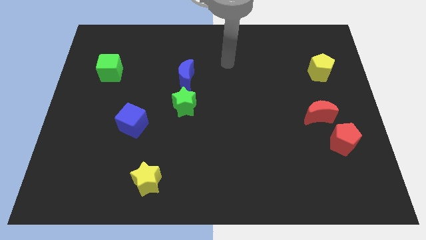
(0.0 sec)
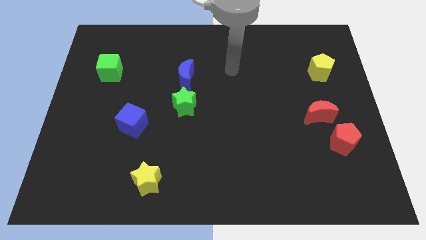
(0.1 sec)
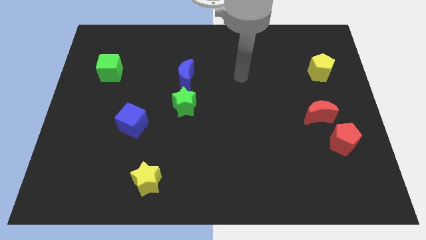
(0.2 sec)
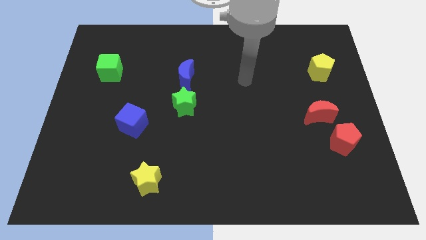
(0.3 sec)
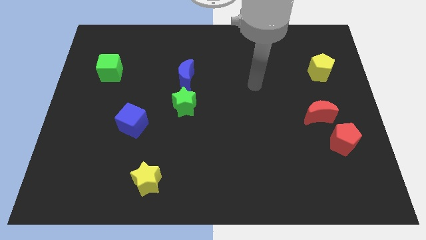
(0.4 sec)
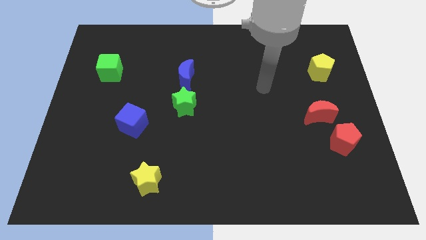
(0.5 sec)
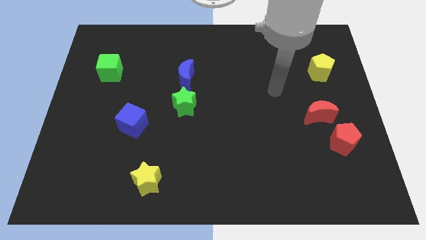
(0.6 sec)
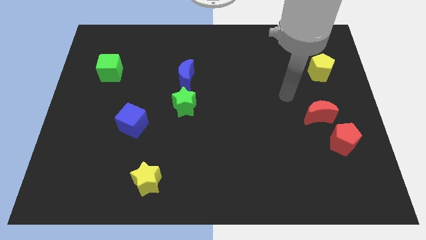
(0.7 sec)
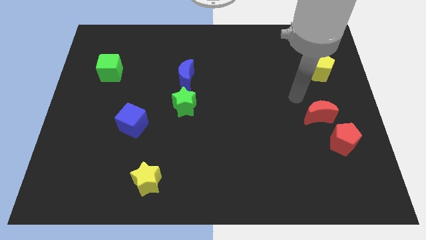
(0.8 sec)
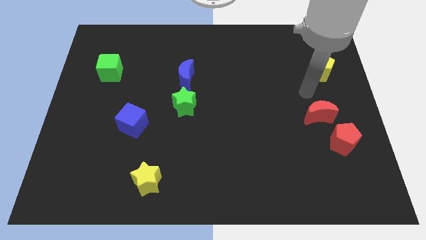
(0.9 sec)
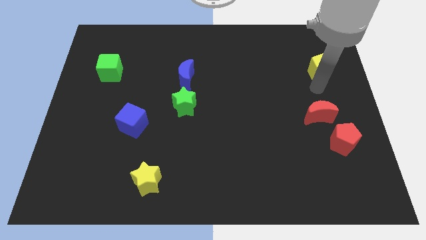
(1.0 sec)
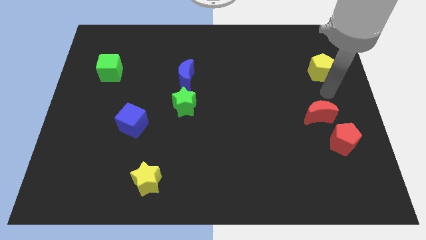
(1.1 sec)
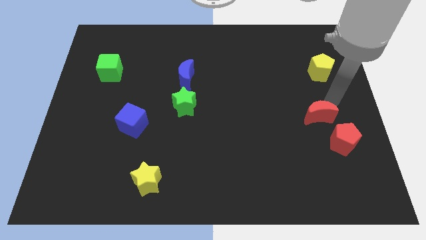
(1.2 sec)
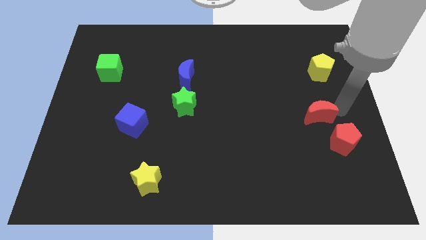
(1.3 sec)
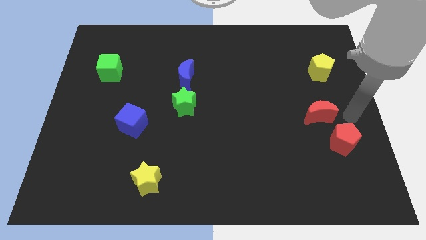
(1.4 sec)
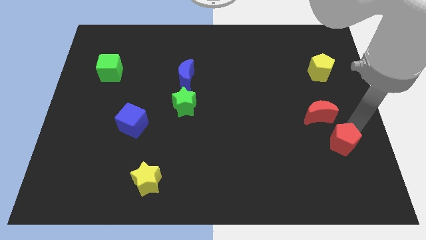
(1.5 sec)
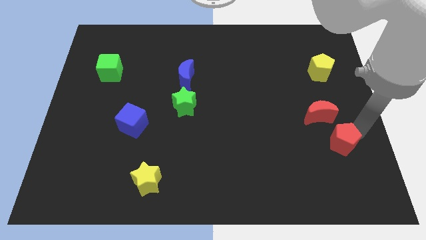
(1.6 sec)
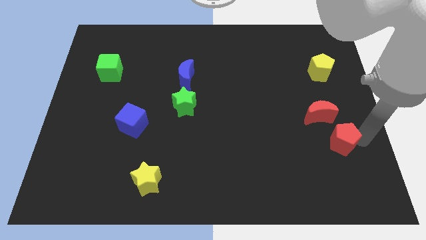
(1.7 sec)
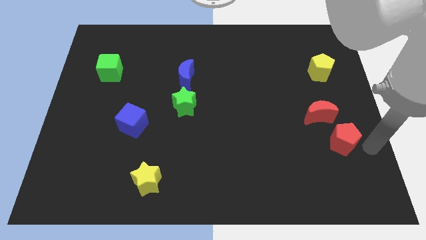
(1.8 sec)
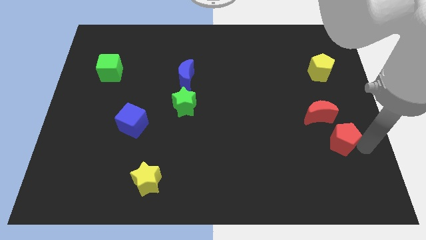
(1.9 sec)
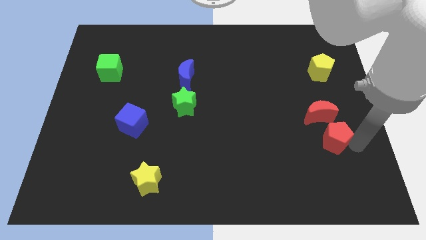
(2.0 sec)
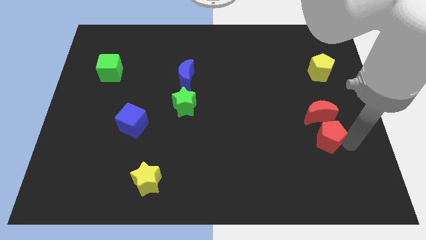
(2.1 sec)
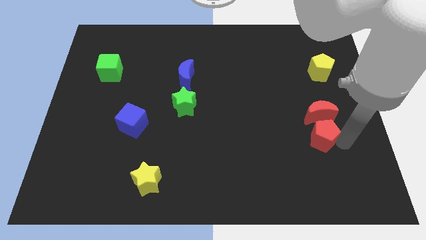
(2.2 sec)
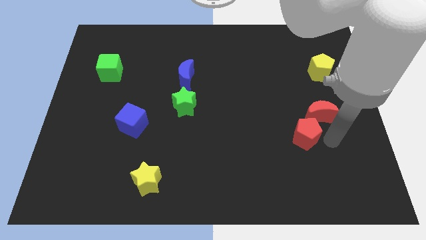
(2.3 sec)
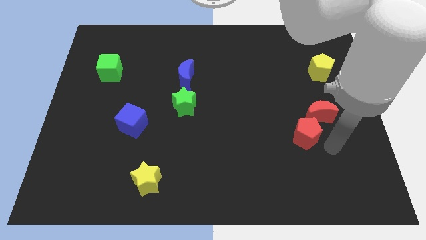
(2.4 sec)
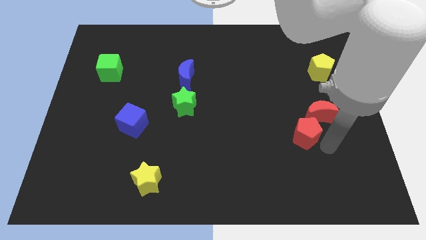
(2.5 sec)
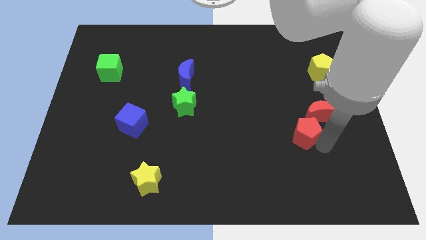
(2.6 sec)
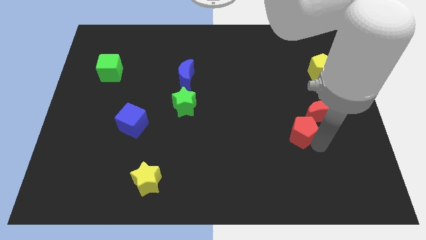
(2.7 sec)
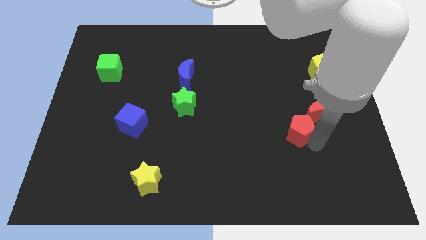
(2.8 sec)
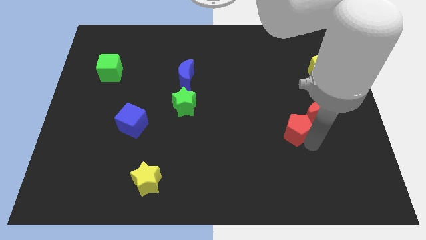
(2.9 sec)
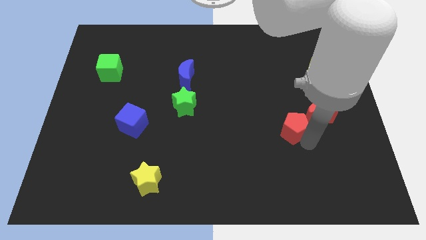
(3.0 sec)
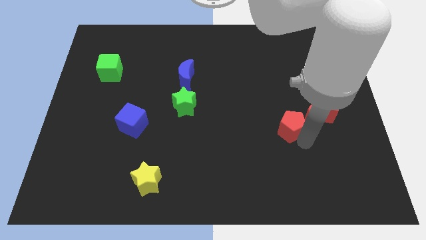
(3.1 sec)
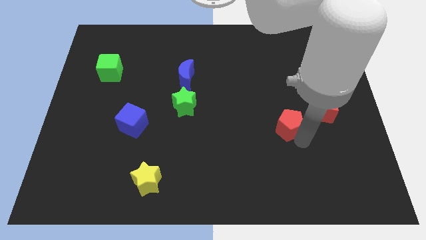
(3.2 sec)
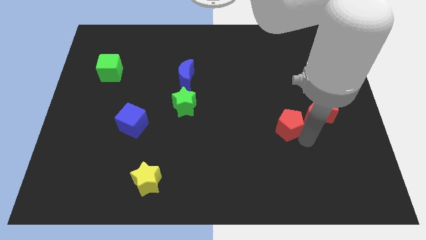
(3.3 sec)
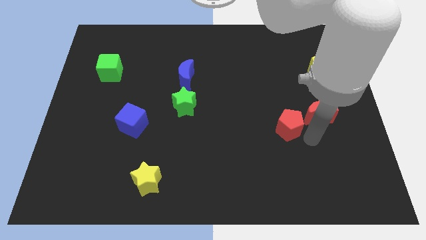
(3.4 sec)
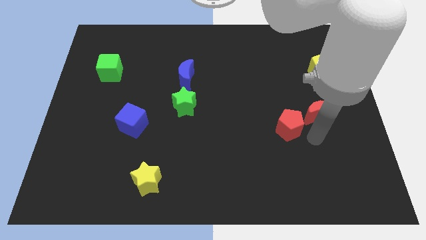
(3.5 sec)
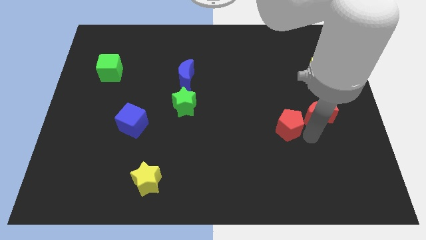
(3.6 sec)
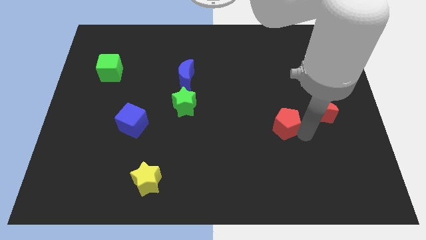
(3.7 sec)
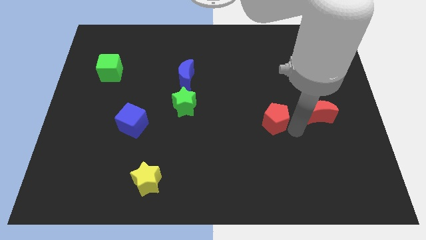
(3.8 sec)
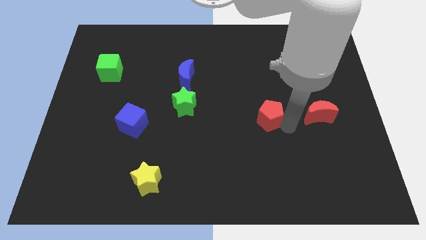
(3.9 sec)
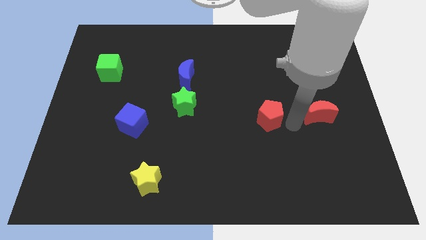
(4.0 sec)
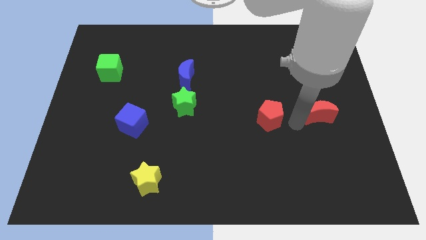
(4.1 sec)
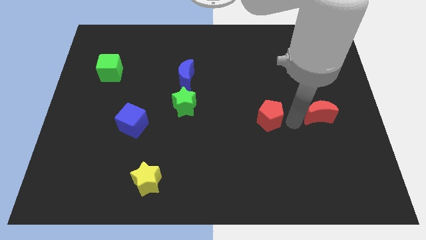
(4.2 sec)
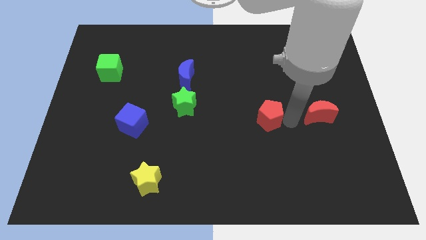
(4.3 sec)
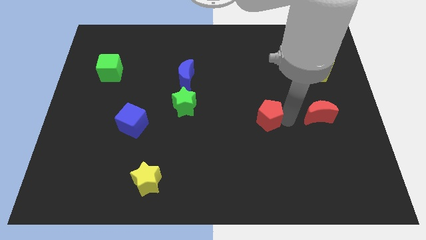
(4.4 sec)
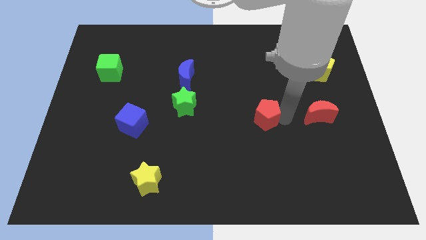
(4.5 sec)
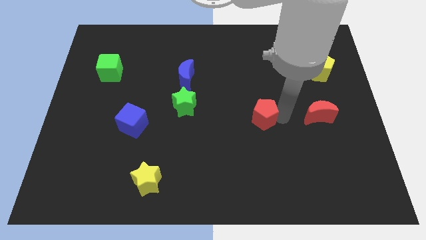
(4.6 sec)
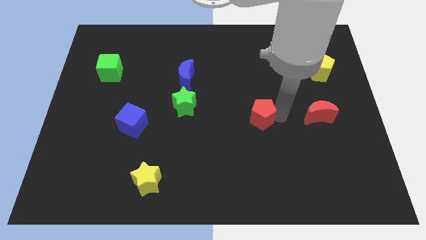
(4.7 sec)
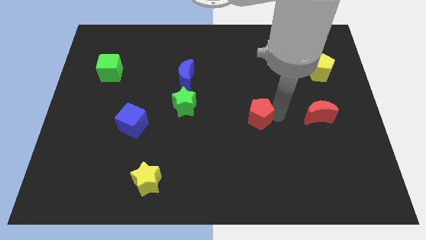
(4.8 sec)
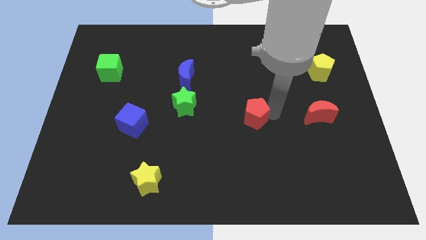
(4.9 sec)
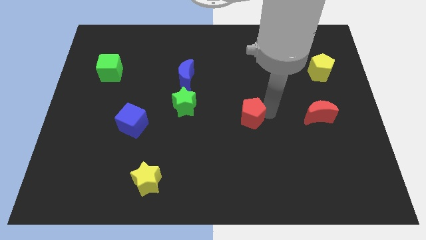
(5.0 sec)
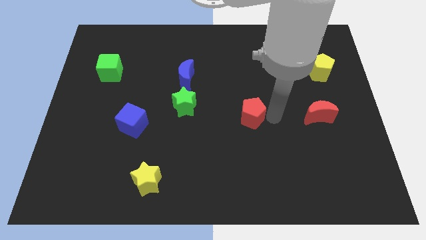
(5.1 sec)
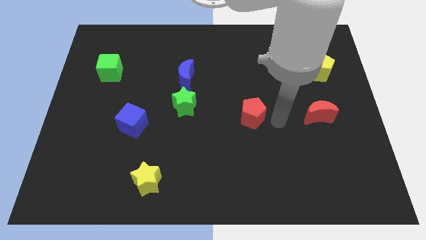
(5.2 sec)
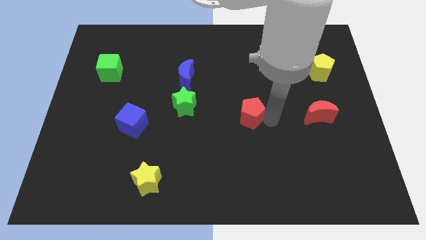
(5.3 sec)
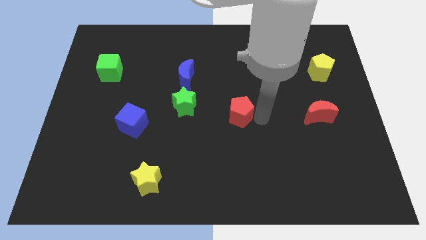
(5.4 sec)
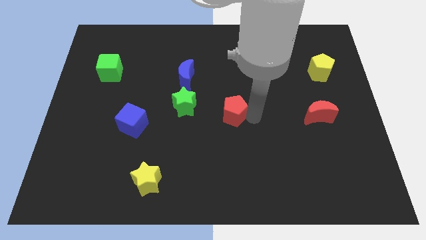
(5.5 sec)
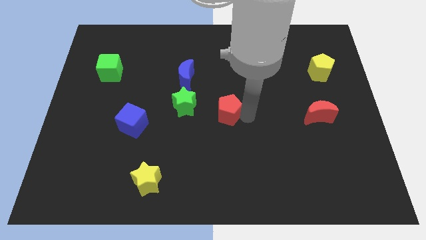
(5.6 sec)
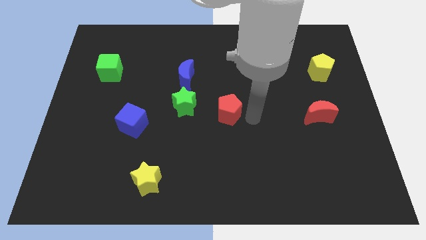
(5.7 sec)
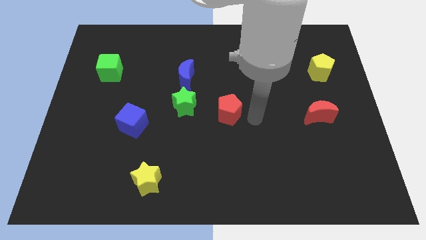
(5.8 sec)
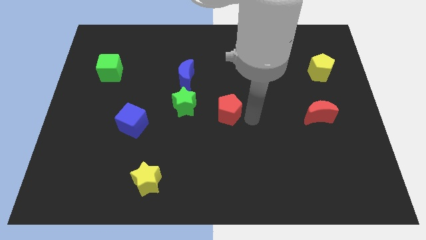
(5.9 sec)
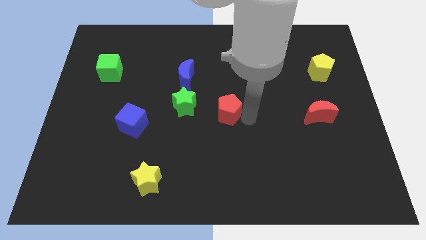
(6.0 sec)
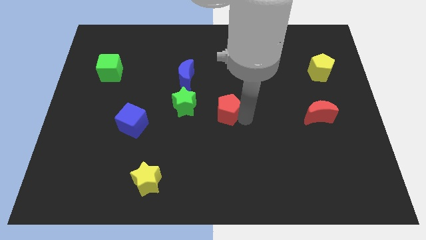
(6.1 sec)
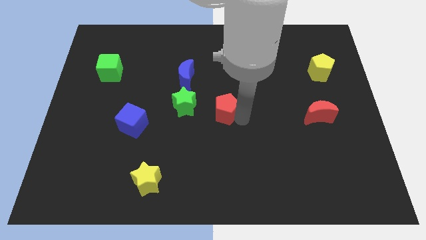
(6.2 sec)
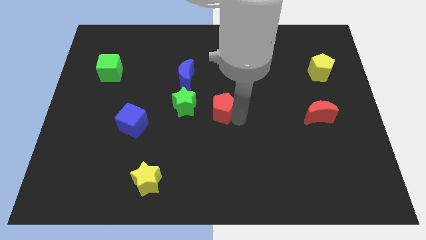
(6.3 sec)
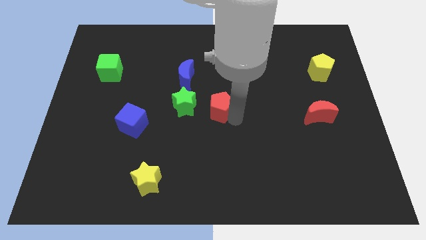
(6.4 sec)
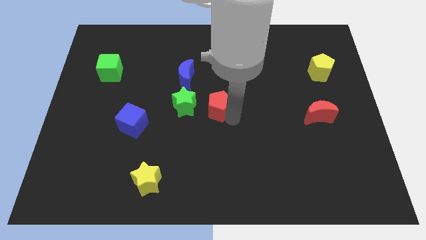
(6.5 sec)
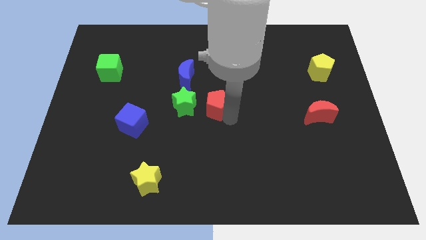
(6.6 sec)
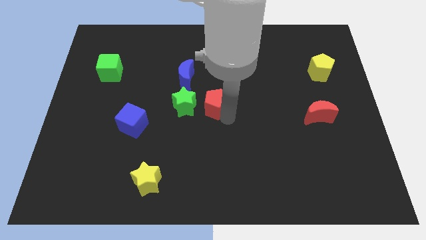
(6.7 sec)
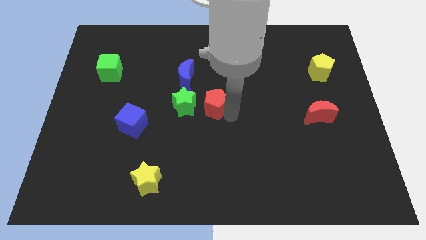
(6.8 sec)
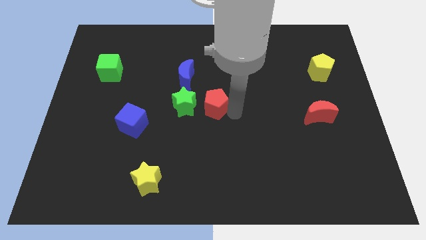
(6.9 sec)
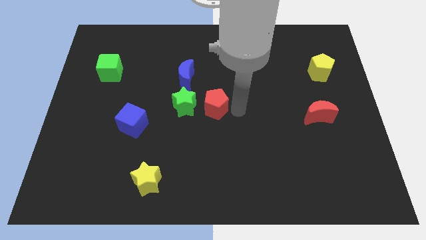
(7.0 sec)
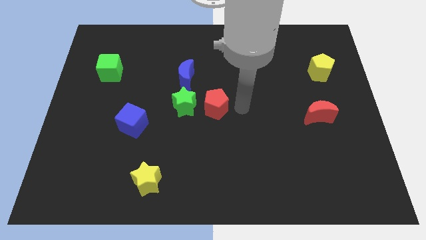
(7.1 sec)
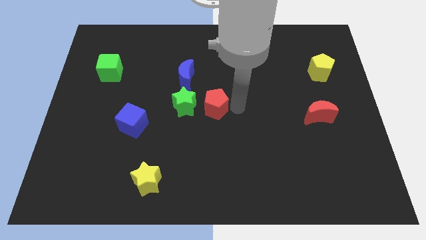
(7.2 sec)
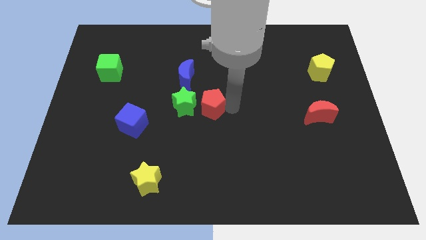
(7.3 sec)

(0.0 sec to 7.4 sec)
push the red pentagon next to the green star

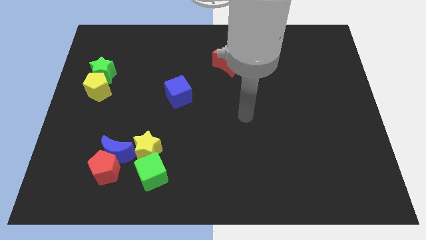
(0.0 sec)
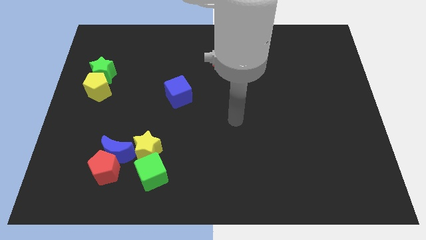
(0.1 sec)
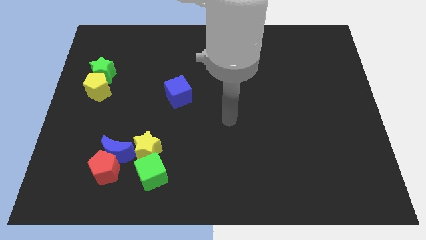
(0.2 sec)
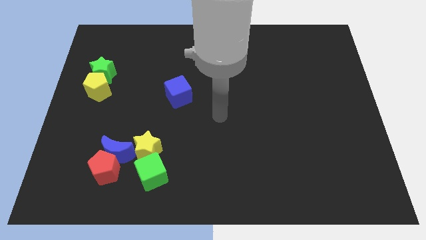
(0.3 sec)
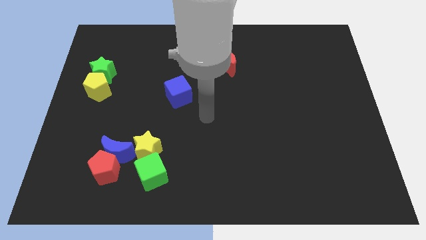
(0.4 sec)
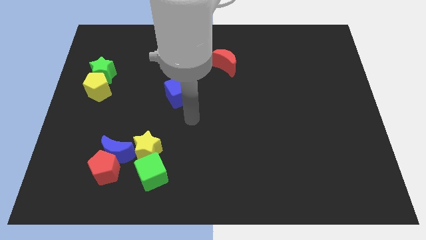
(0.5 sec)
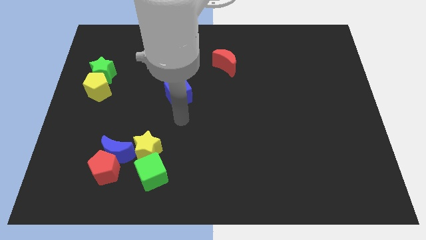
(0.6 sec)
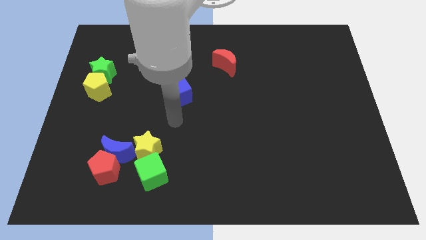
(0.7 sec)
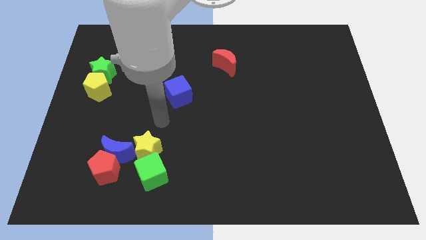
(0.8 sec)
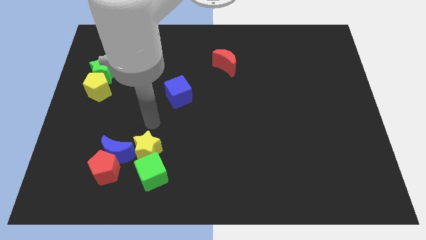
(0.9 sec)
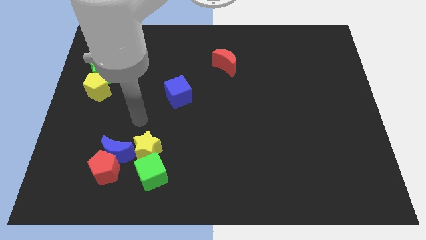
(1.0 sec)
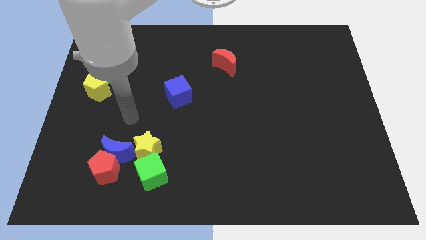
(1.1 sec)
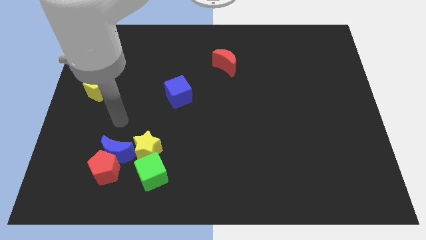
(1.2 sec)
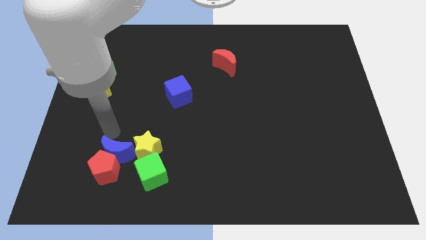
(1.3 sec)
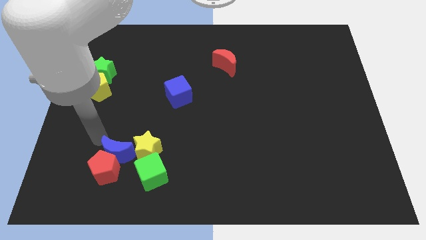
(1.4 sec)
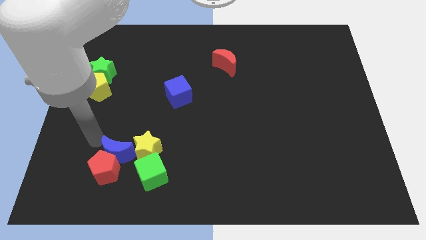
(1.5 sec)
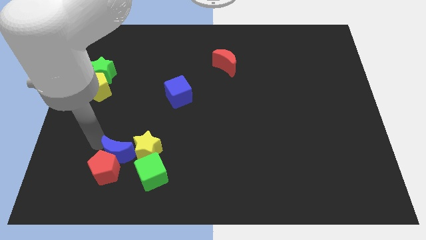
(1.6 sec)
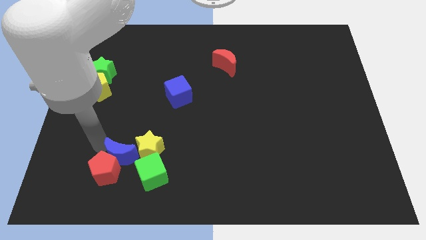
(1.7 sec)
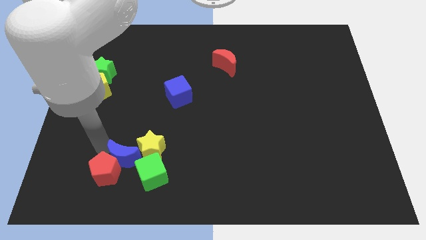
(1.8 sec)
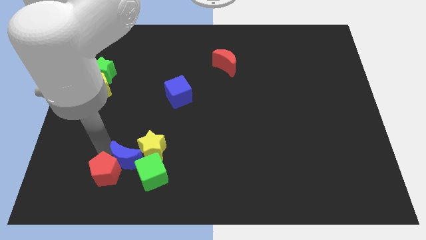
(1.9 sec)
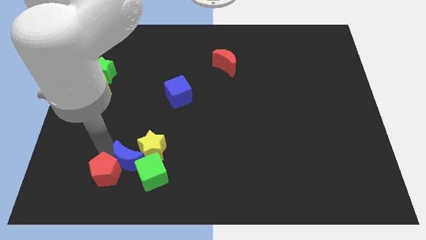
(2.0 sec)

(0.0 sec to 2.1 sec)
put the blue moon next to the green cube
